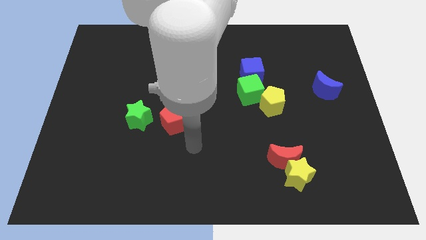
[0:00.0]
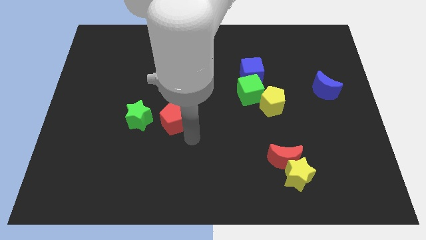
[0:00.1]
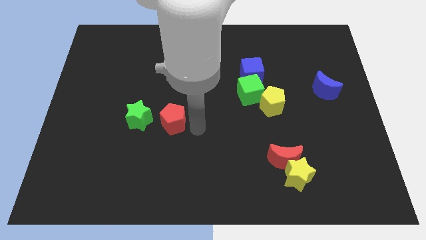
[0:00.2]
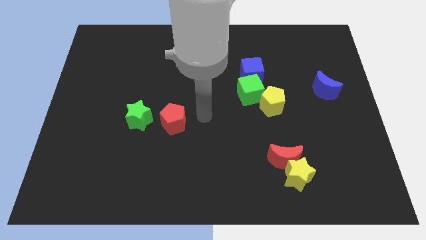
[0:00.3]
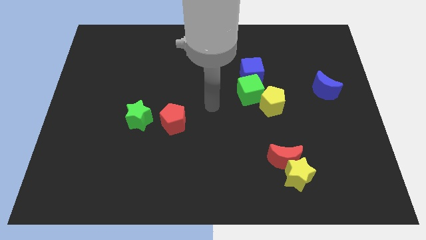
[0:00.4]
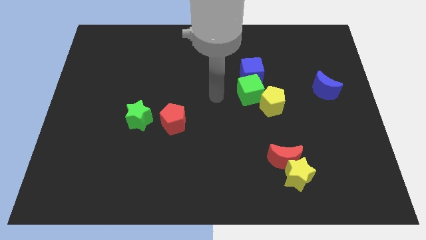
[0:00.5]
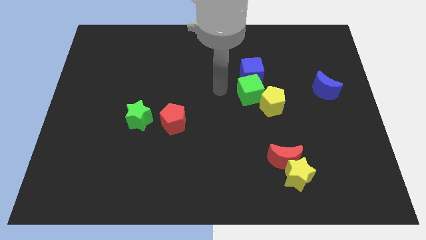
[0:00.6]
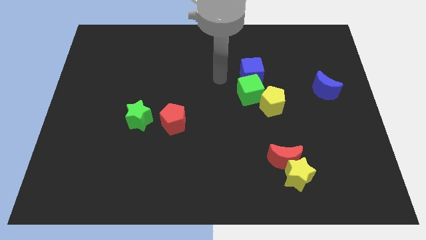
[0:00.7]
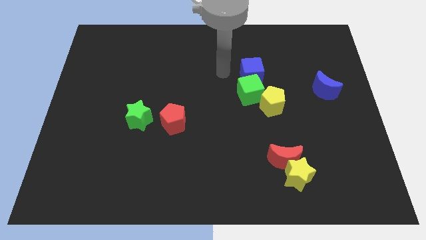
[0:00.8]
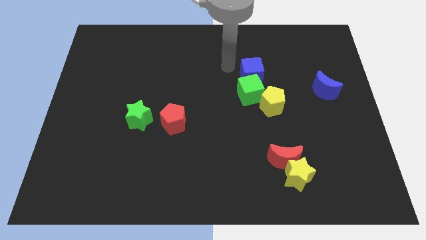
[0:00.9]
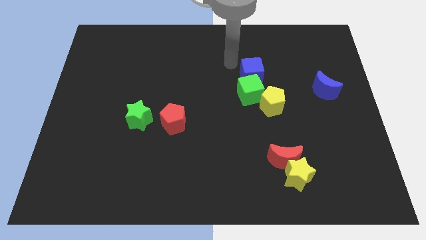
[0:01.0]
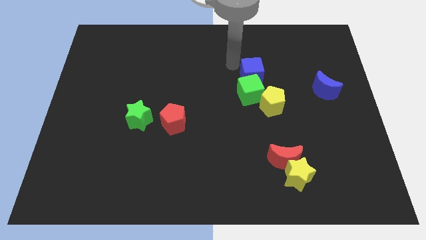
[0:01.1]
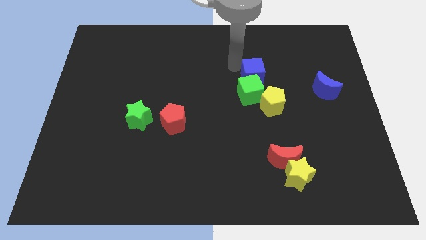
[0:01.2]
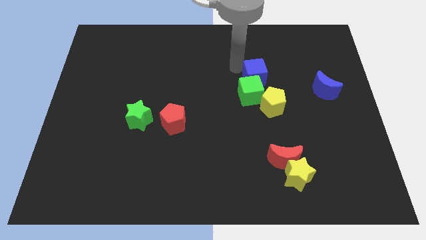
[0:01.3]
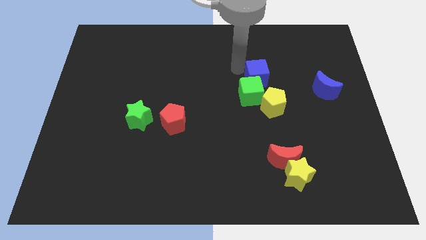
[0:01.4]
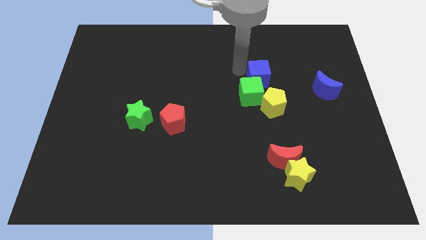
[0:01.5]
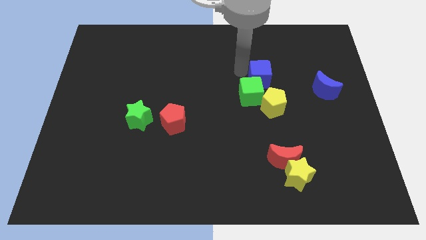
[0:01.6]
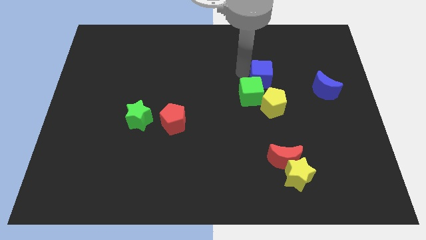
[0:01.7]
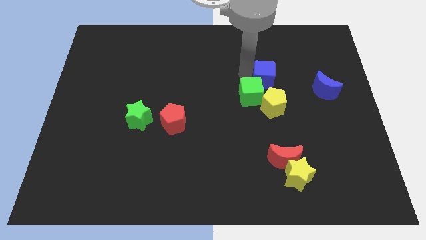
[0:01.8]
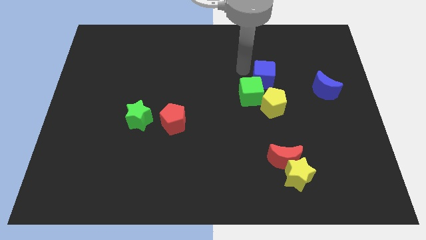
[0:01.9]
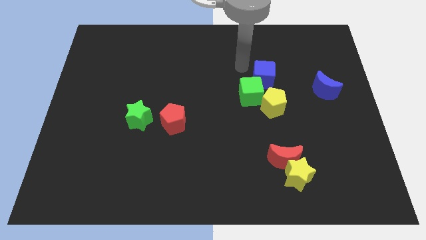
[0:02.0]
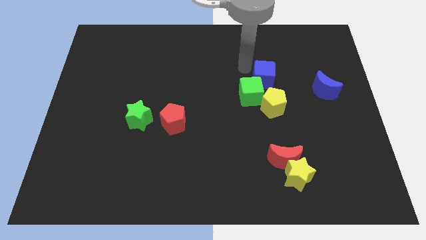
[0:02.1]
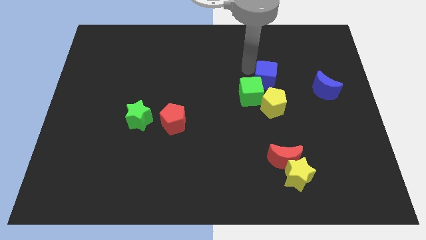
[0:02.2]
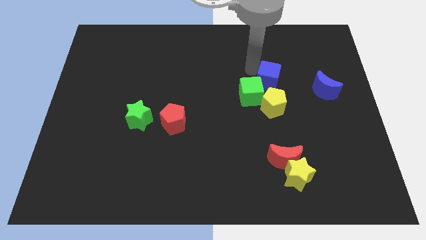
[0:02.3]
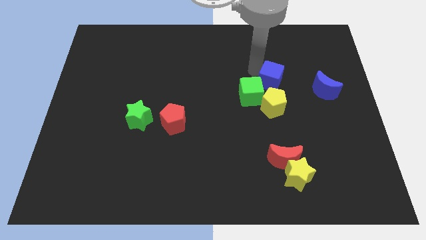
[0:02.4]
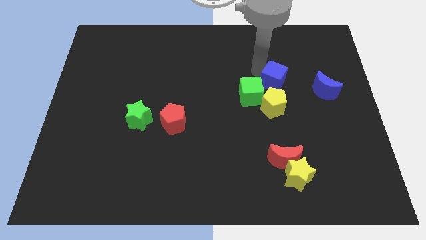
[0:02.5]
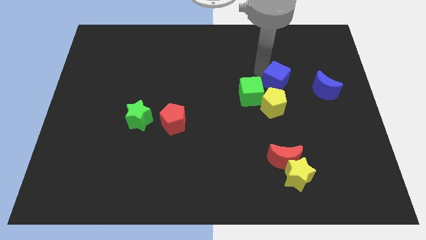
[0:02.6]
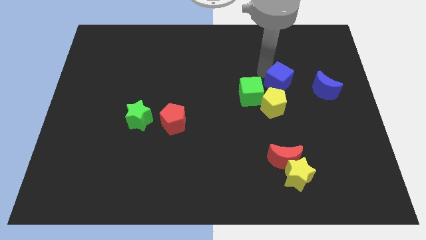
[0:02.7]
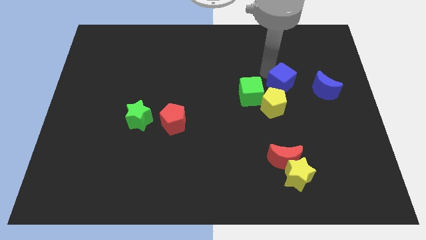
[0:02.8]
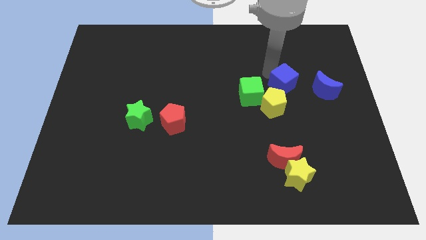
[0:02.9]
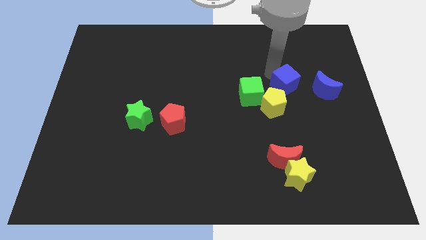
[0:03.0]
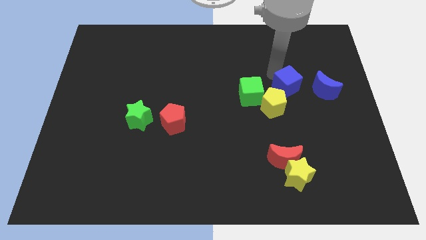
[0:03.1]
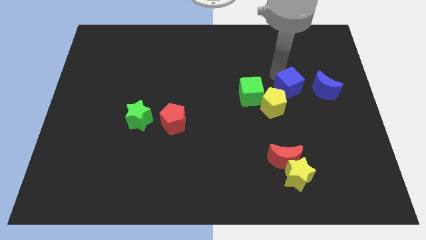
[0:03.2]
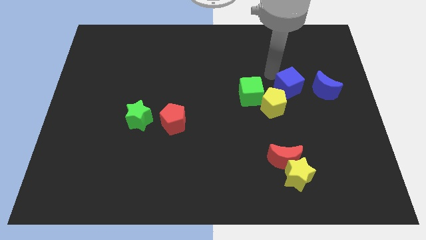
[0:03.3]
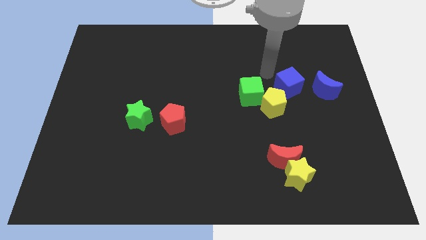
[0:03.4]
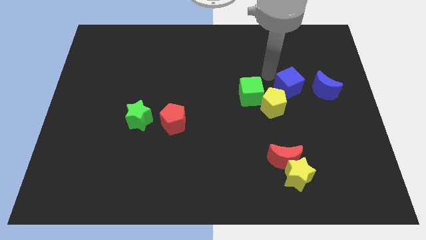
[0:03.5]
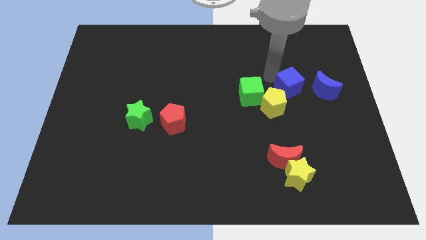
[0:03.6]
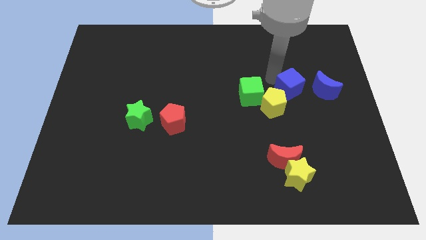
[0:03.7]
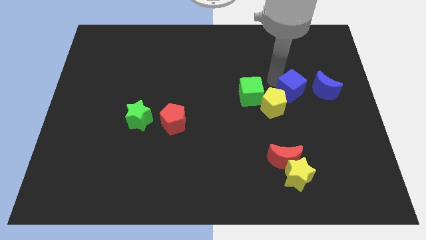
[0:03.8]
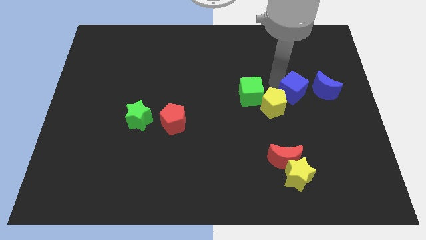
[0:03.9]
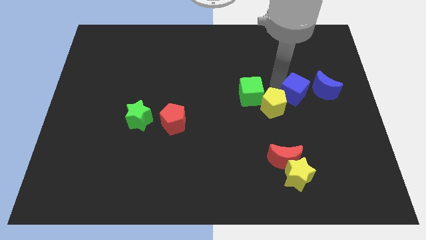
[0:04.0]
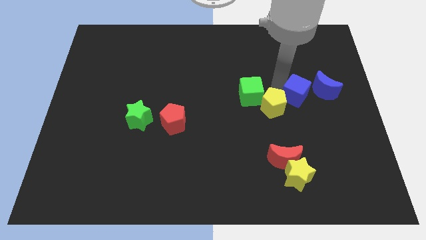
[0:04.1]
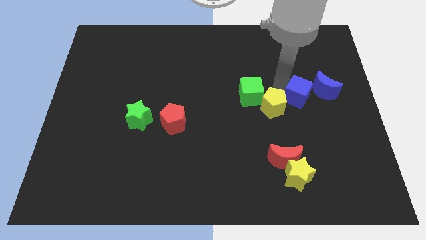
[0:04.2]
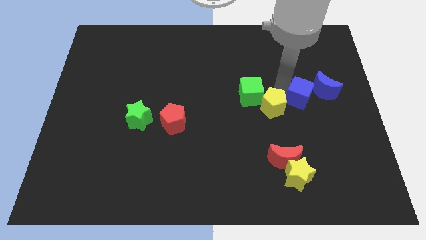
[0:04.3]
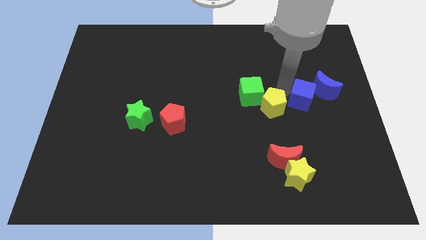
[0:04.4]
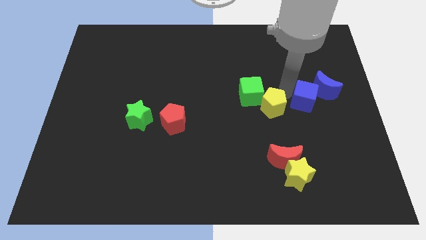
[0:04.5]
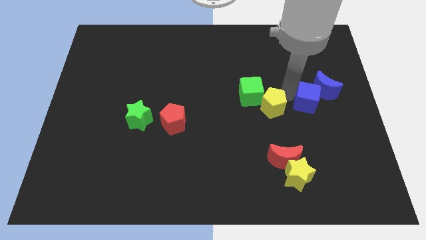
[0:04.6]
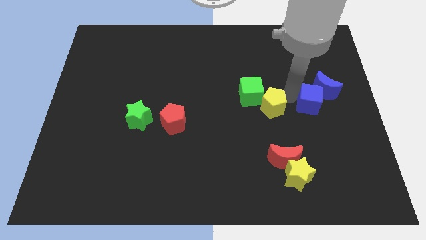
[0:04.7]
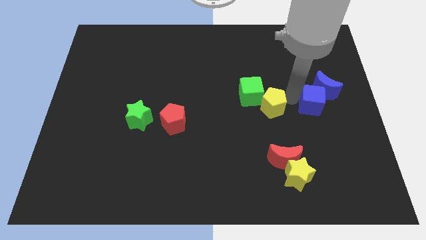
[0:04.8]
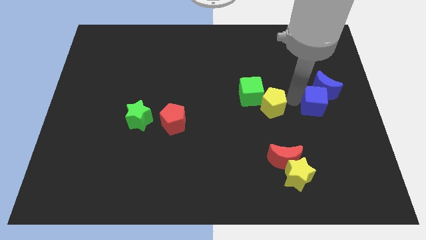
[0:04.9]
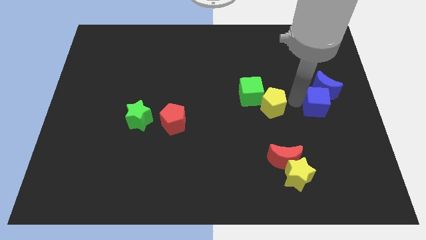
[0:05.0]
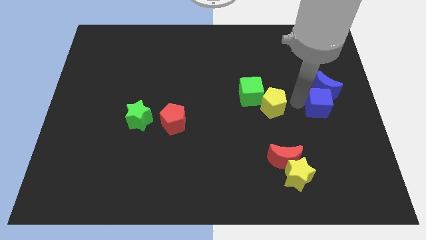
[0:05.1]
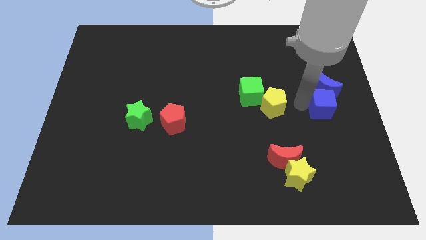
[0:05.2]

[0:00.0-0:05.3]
put the blue cube to the right side of the board

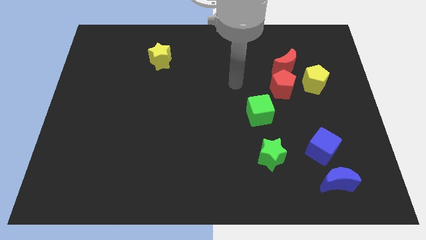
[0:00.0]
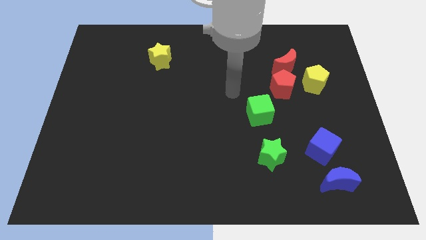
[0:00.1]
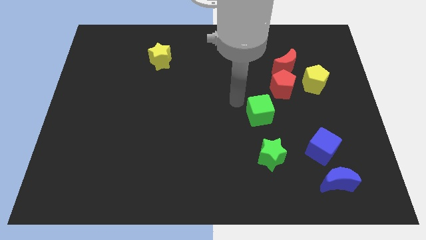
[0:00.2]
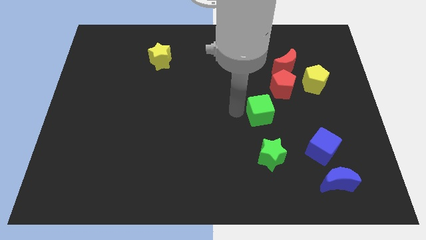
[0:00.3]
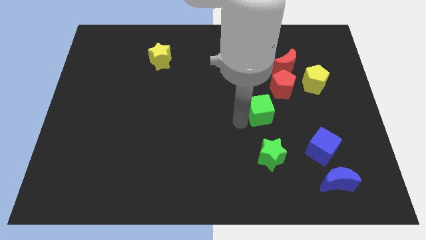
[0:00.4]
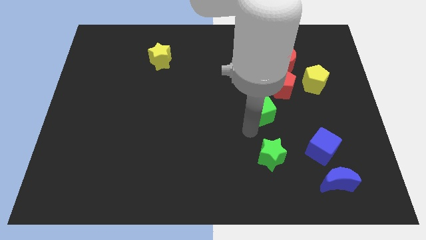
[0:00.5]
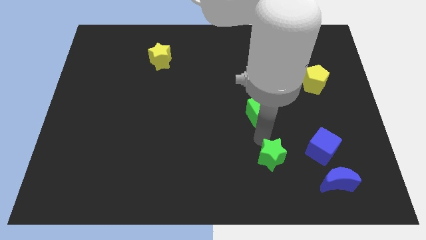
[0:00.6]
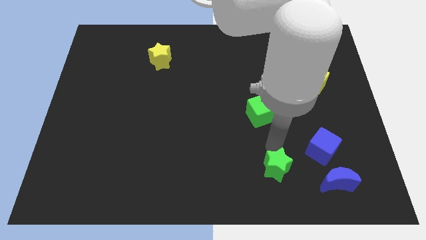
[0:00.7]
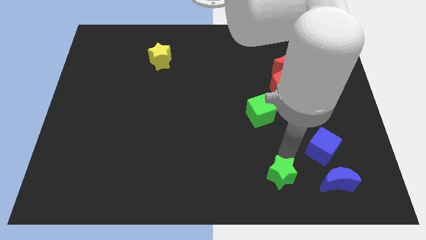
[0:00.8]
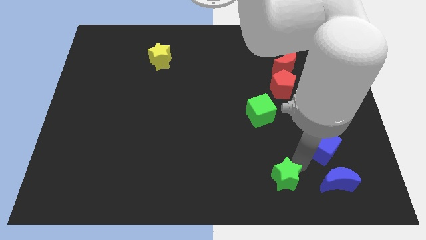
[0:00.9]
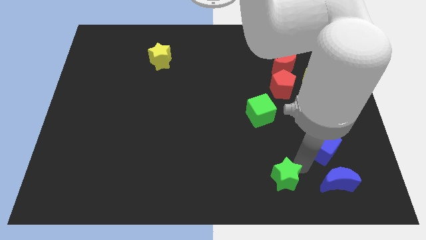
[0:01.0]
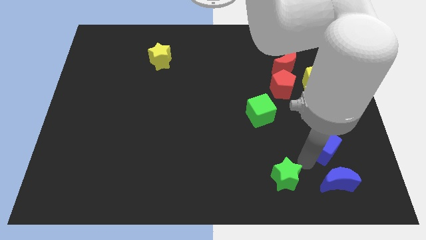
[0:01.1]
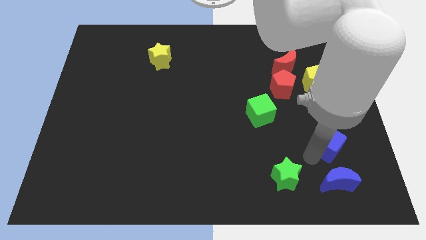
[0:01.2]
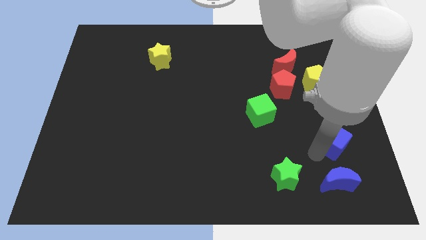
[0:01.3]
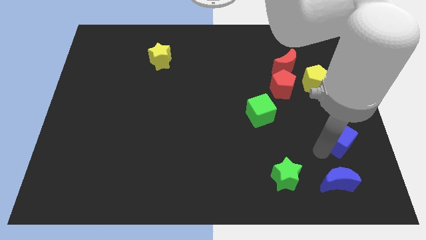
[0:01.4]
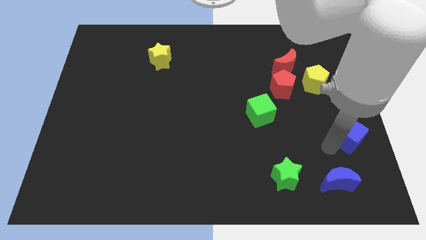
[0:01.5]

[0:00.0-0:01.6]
move the blue cube to the center right

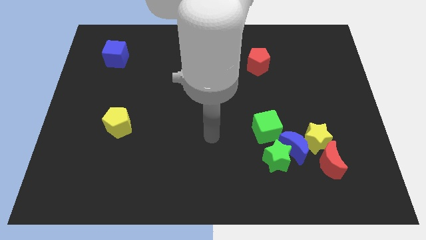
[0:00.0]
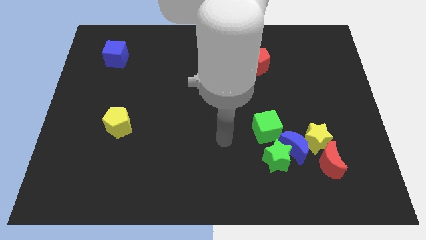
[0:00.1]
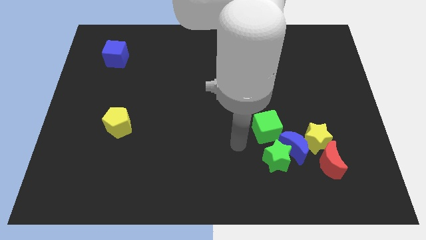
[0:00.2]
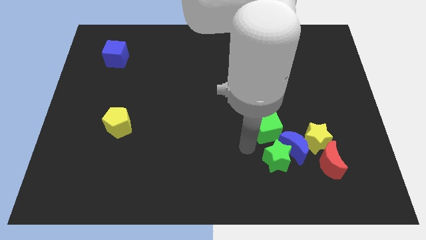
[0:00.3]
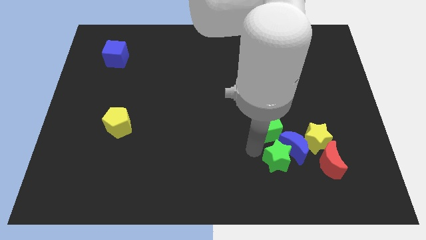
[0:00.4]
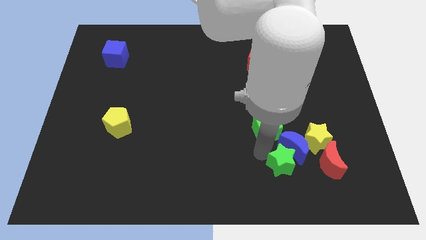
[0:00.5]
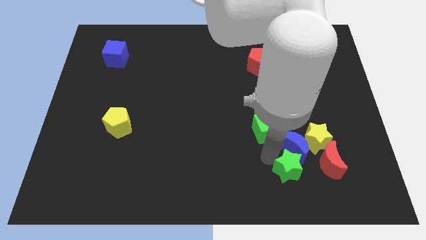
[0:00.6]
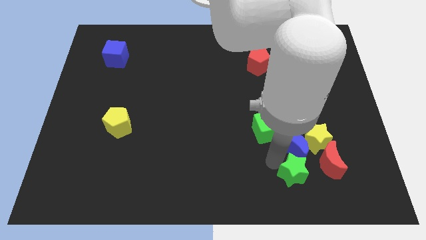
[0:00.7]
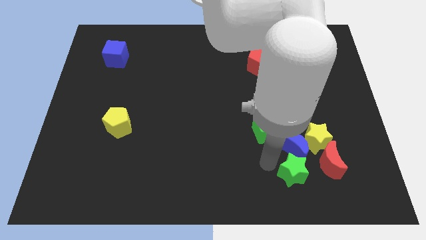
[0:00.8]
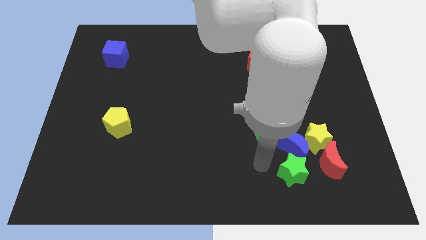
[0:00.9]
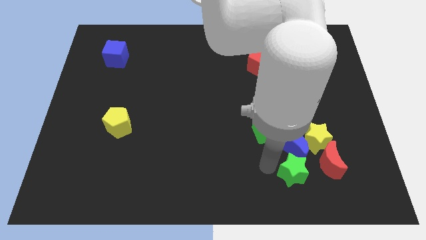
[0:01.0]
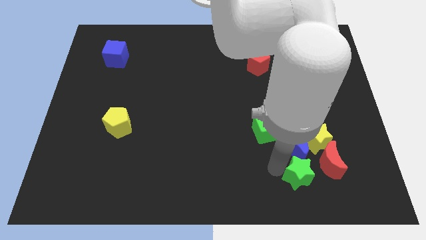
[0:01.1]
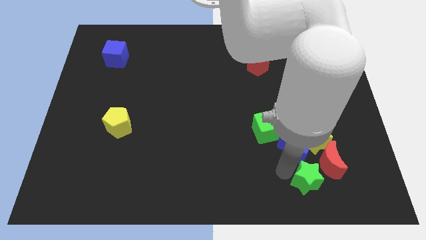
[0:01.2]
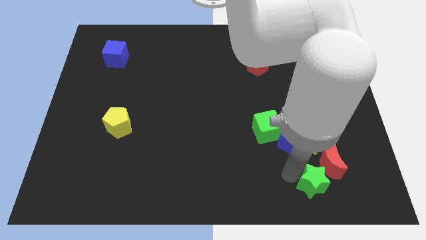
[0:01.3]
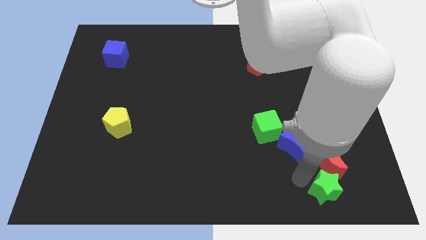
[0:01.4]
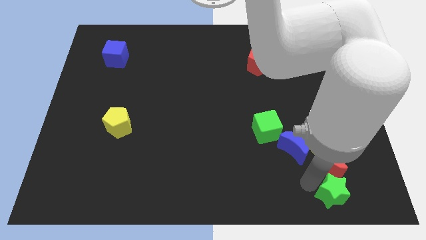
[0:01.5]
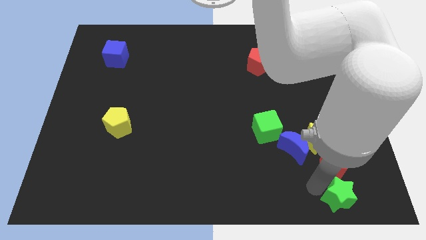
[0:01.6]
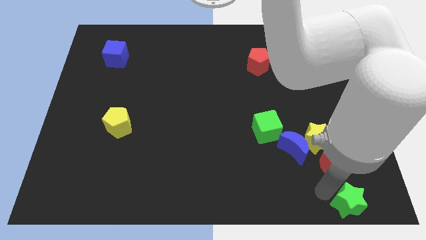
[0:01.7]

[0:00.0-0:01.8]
push the green star to the bottom right corner
